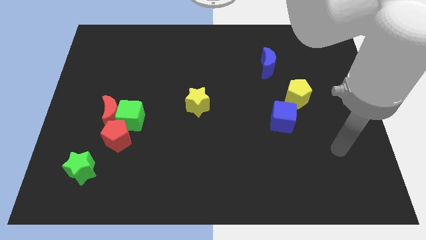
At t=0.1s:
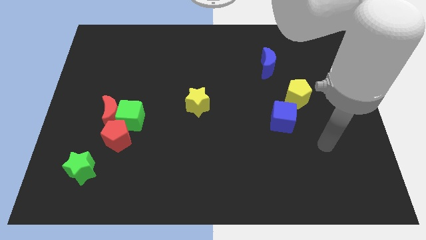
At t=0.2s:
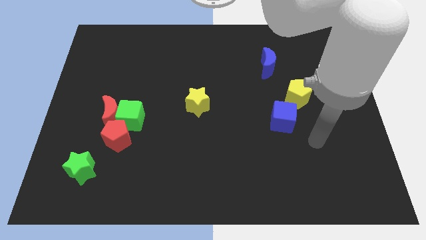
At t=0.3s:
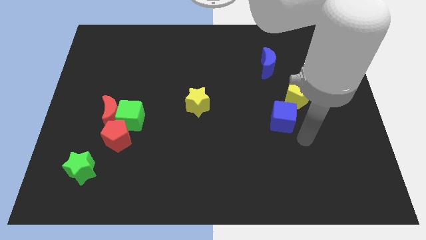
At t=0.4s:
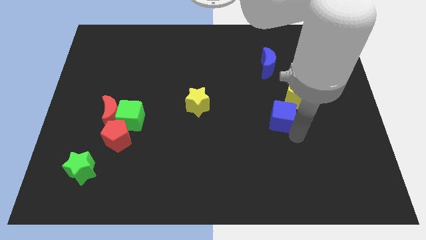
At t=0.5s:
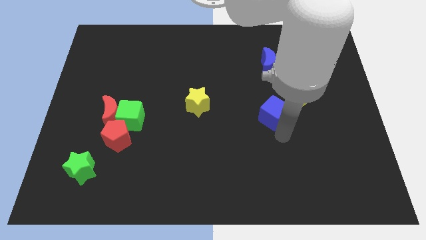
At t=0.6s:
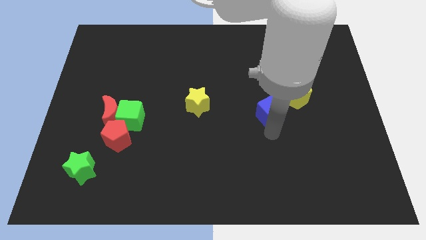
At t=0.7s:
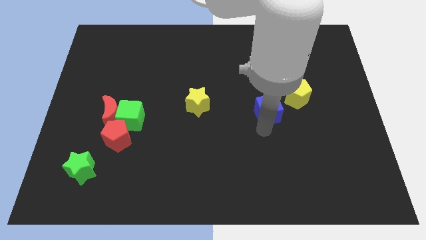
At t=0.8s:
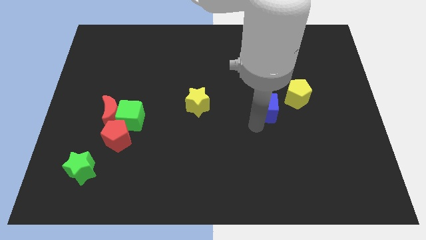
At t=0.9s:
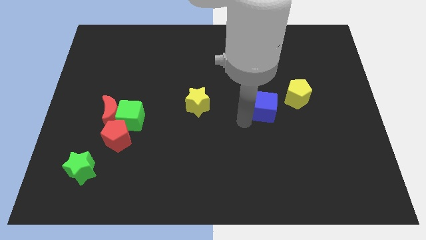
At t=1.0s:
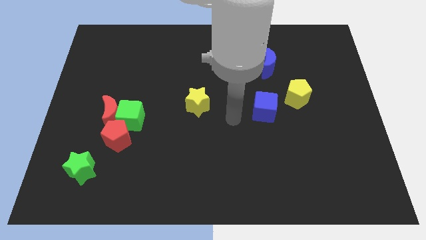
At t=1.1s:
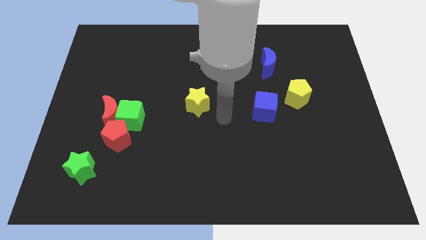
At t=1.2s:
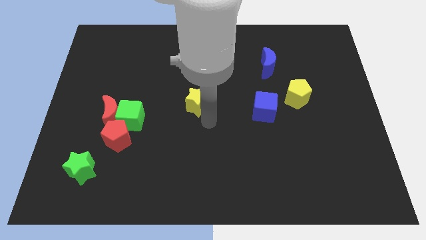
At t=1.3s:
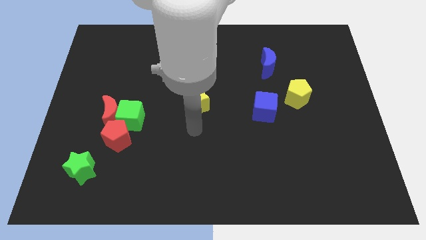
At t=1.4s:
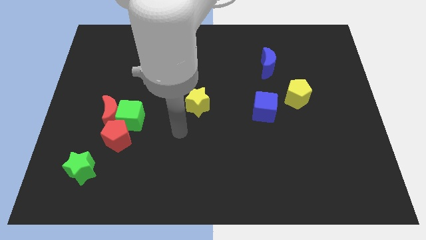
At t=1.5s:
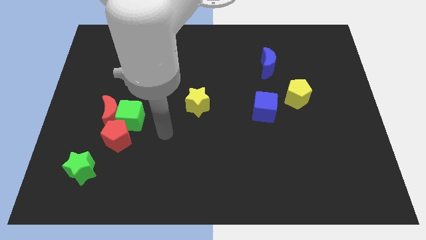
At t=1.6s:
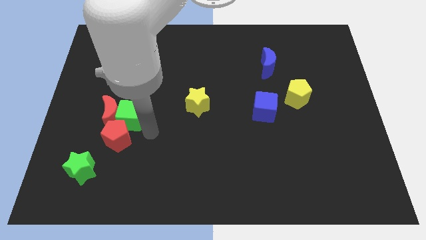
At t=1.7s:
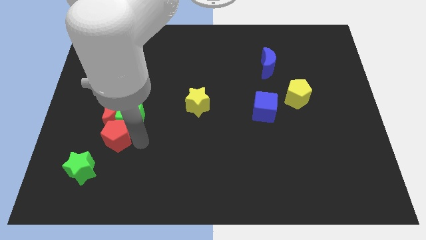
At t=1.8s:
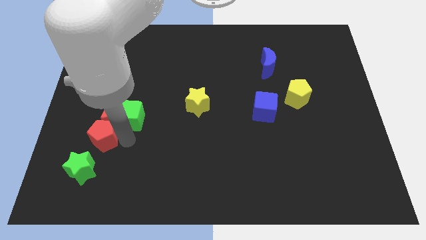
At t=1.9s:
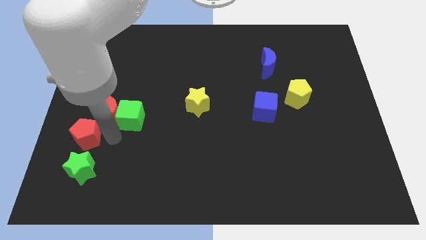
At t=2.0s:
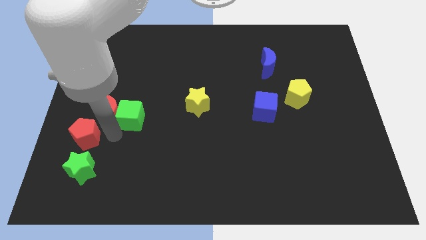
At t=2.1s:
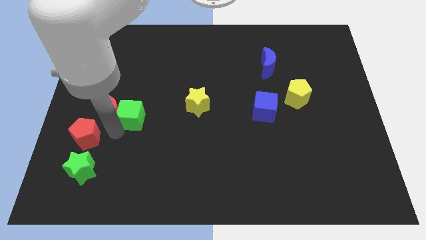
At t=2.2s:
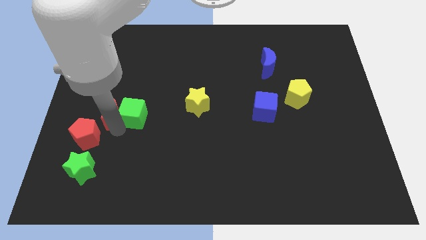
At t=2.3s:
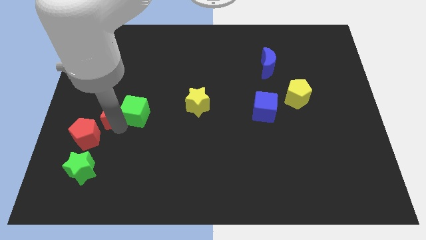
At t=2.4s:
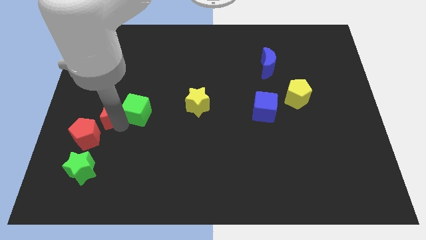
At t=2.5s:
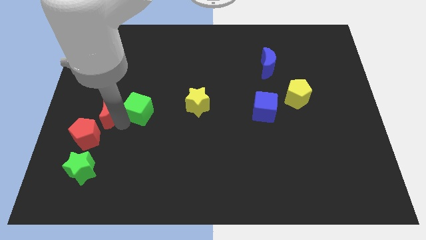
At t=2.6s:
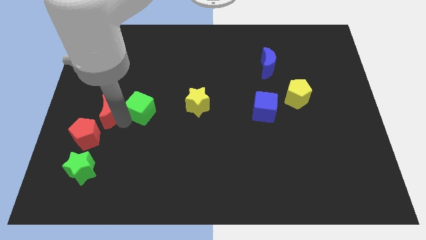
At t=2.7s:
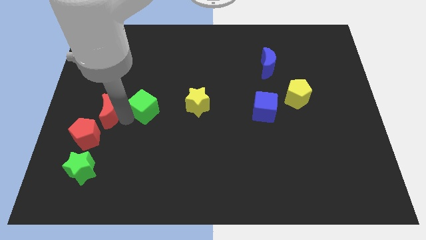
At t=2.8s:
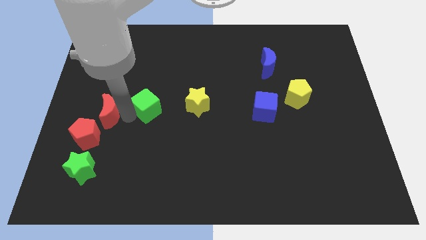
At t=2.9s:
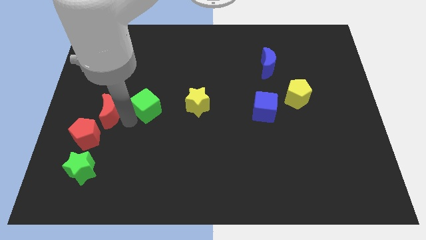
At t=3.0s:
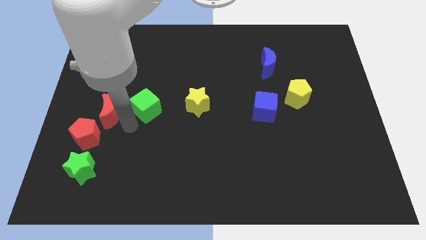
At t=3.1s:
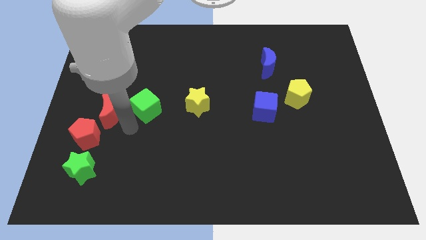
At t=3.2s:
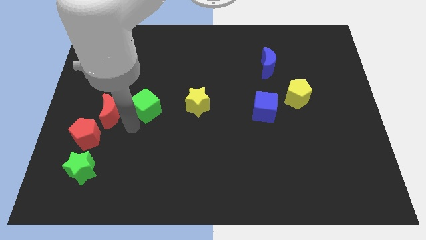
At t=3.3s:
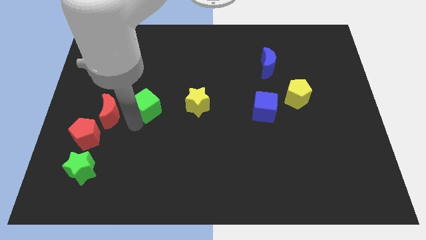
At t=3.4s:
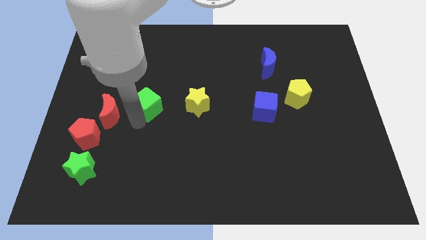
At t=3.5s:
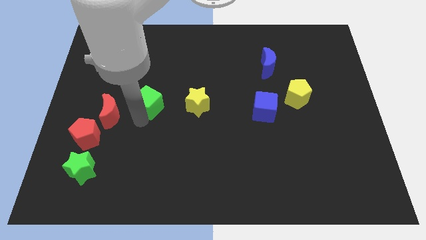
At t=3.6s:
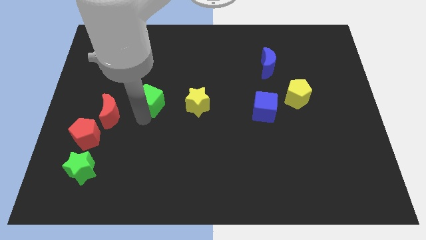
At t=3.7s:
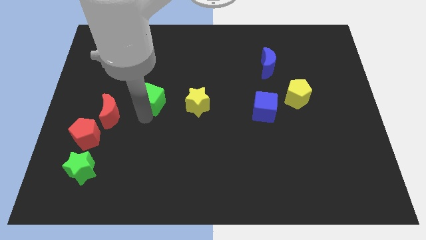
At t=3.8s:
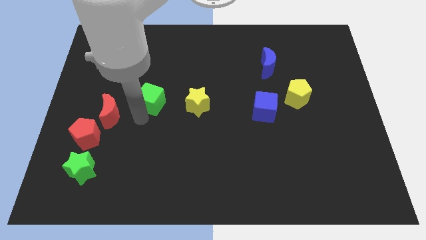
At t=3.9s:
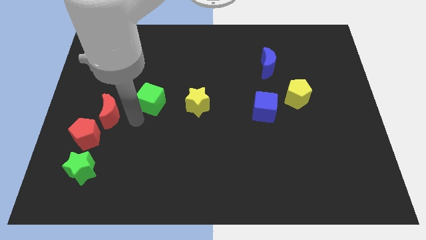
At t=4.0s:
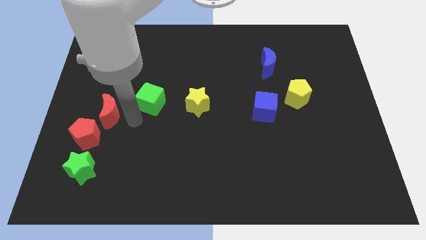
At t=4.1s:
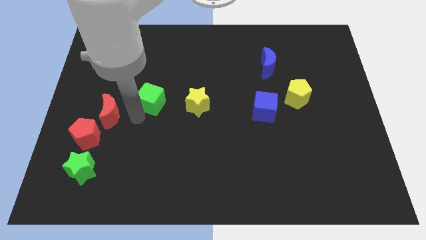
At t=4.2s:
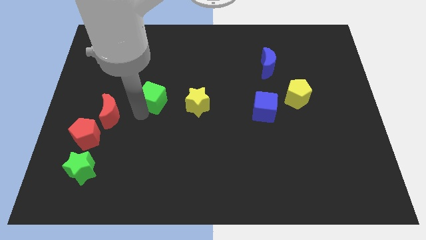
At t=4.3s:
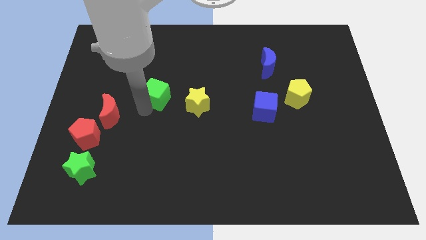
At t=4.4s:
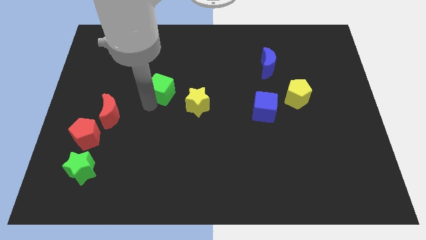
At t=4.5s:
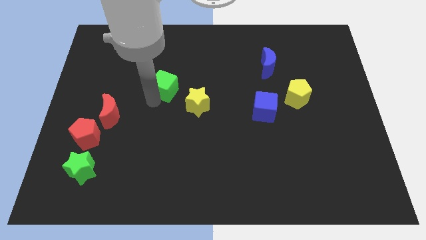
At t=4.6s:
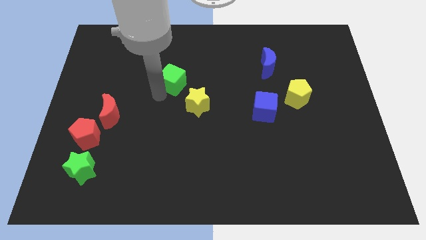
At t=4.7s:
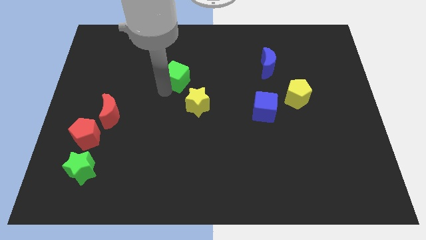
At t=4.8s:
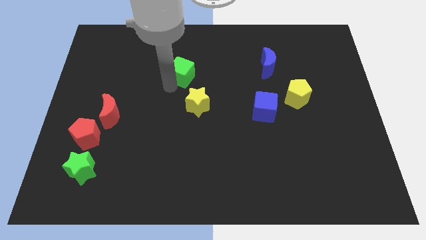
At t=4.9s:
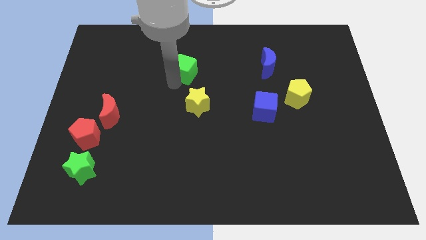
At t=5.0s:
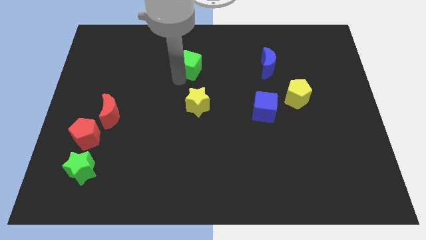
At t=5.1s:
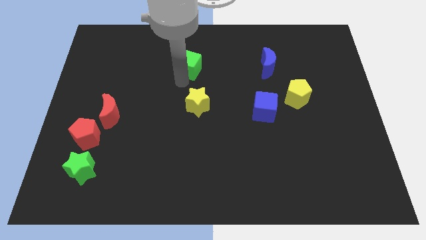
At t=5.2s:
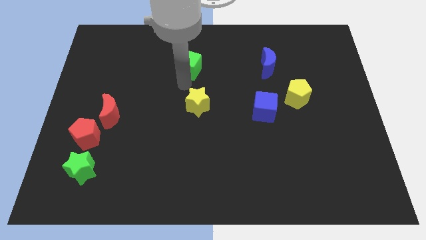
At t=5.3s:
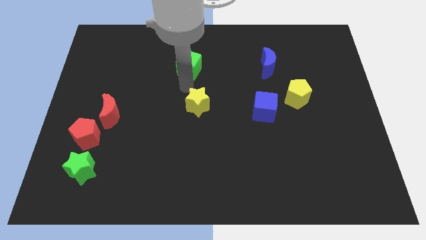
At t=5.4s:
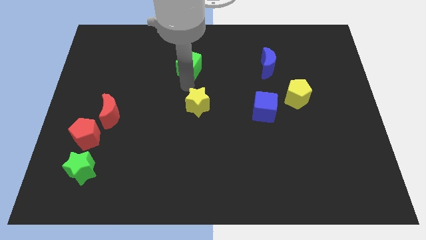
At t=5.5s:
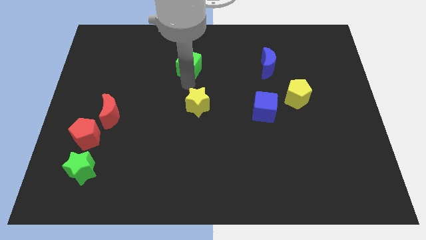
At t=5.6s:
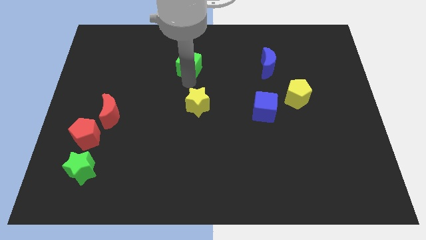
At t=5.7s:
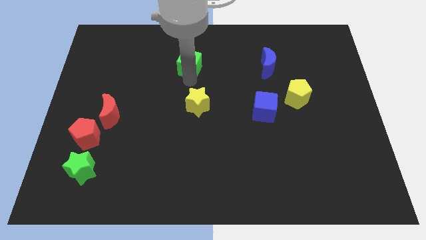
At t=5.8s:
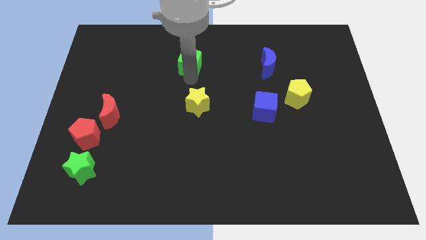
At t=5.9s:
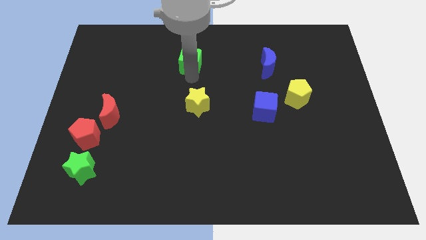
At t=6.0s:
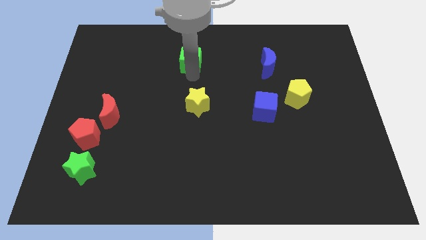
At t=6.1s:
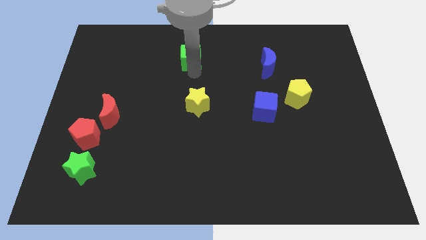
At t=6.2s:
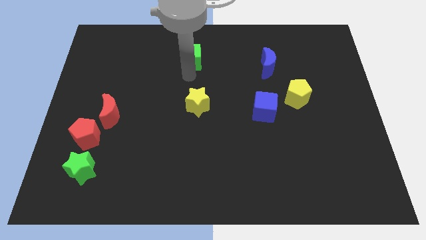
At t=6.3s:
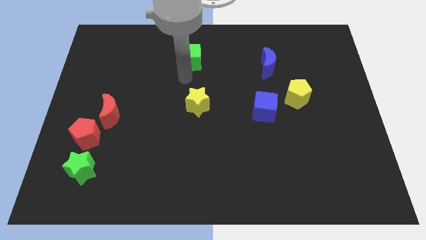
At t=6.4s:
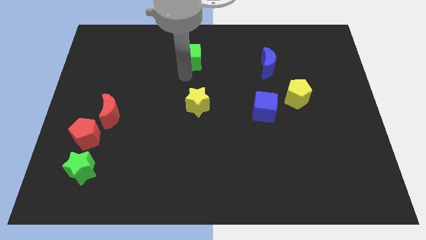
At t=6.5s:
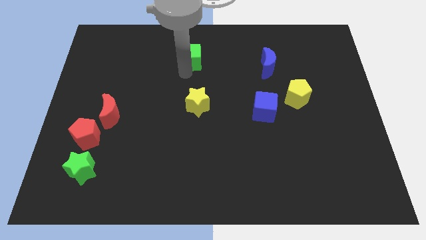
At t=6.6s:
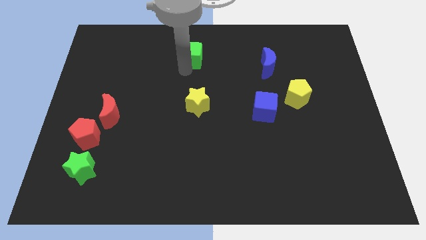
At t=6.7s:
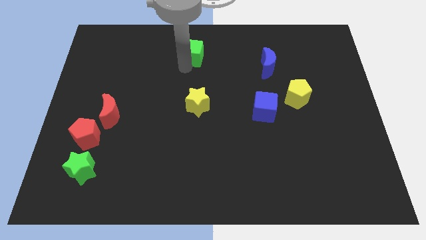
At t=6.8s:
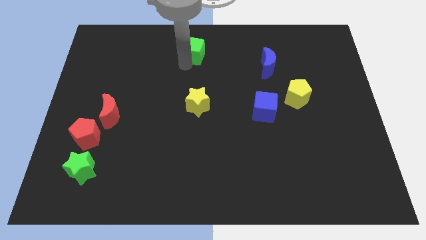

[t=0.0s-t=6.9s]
move the green cube to the top side

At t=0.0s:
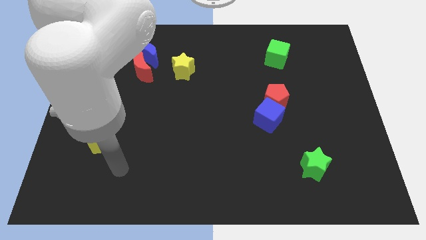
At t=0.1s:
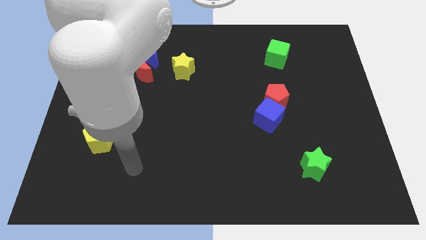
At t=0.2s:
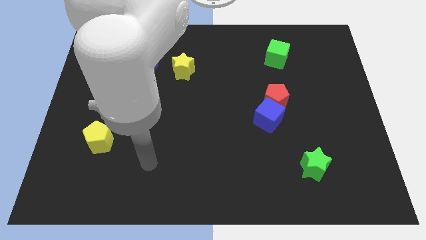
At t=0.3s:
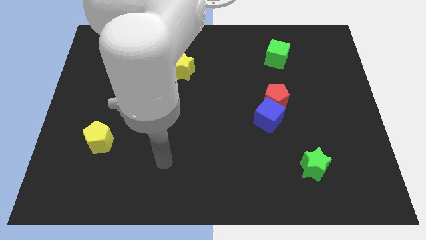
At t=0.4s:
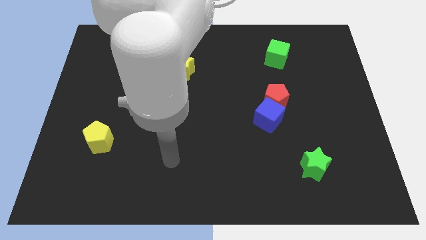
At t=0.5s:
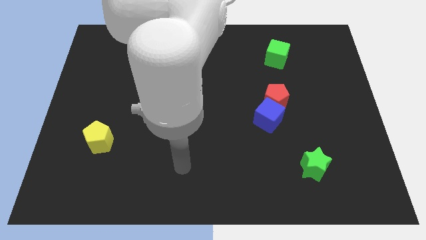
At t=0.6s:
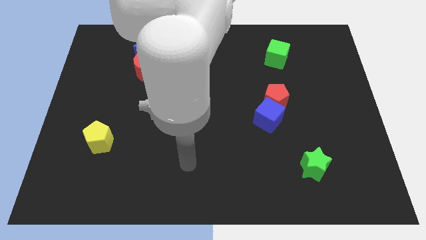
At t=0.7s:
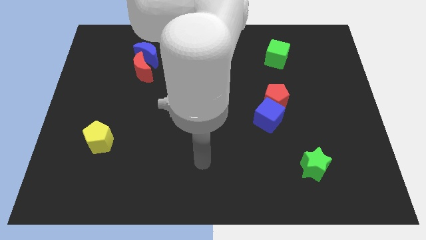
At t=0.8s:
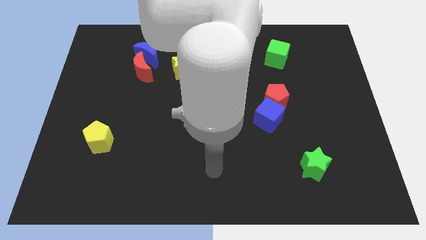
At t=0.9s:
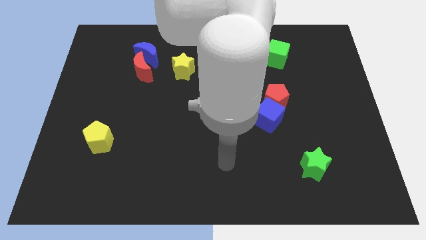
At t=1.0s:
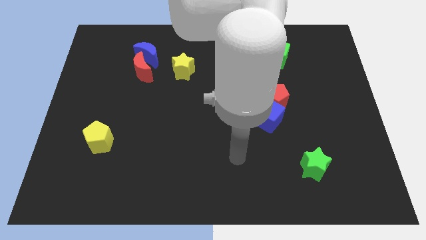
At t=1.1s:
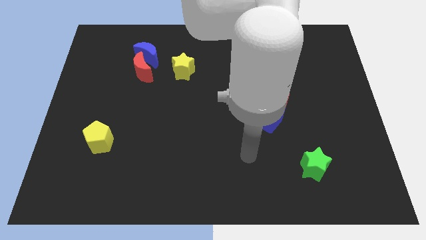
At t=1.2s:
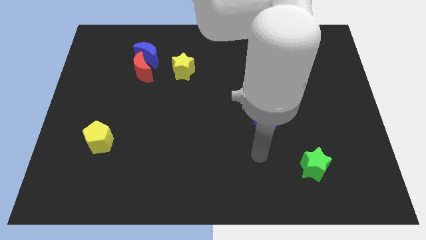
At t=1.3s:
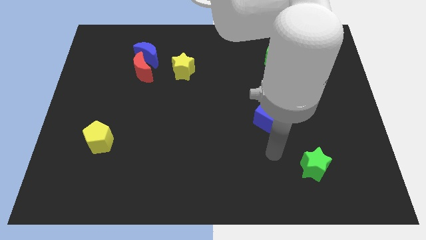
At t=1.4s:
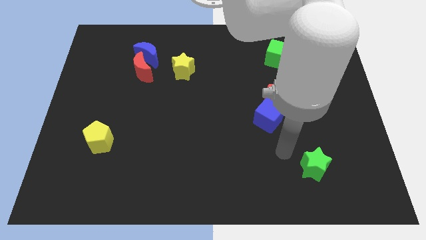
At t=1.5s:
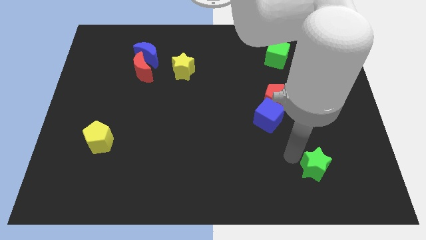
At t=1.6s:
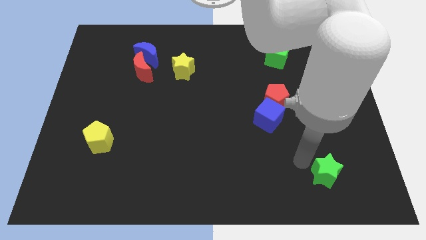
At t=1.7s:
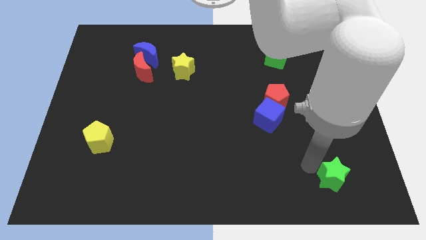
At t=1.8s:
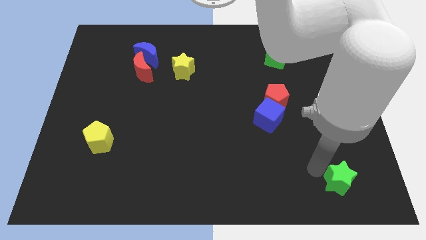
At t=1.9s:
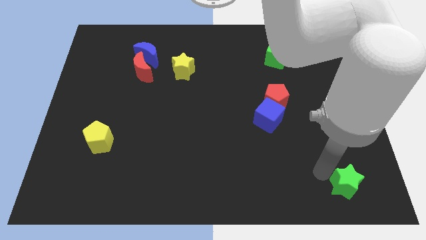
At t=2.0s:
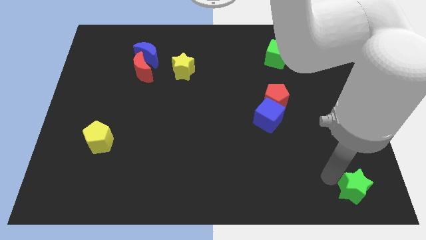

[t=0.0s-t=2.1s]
push the green star to the bottom right corner
